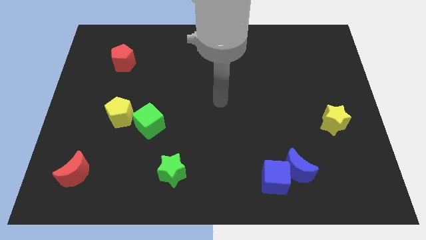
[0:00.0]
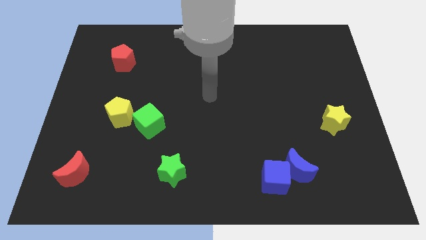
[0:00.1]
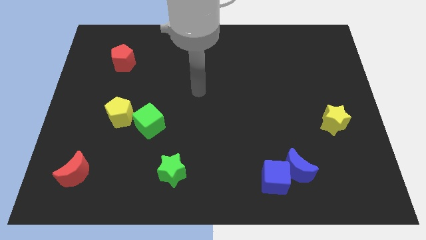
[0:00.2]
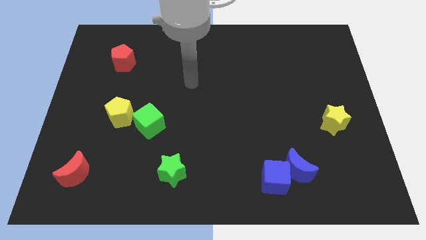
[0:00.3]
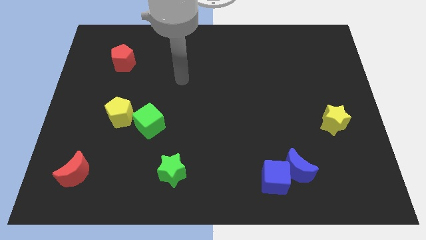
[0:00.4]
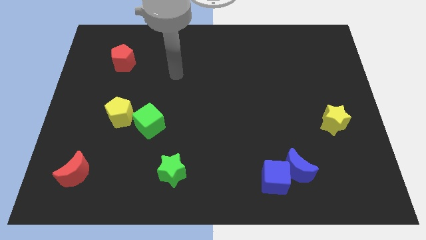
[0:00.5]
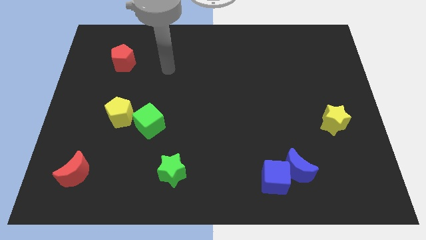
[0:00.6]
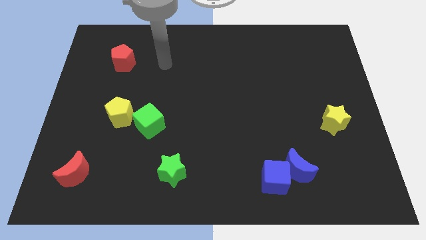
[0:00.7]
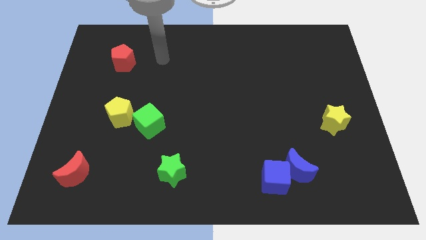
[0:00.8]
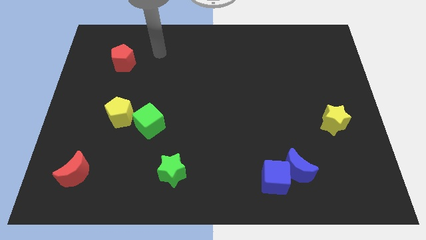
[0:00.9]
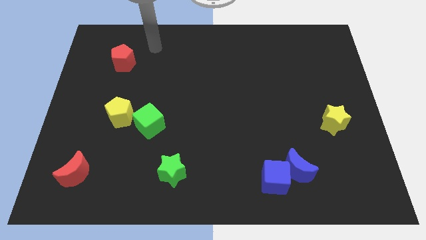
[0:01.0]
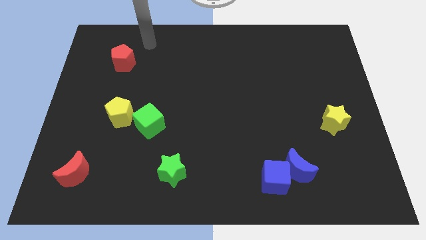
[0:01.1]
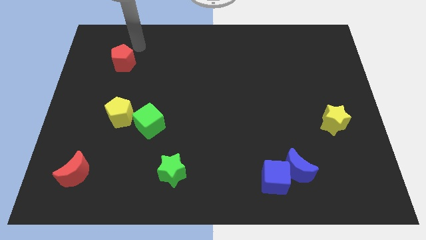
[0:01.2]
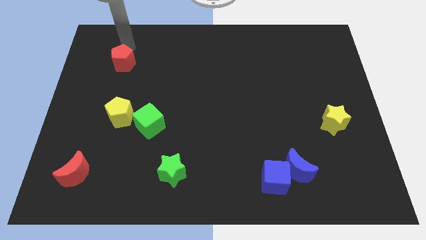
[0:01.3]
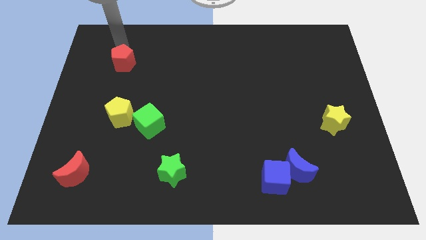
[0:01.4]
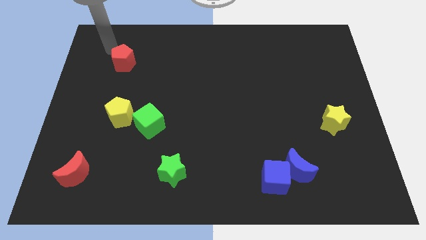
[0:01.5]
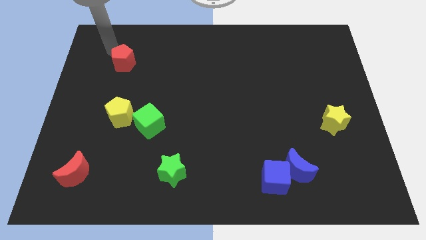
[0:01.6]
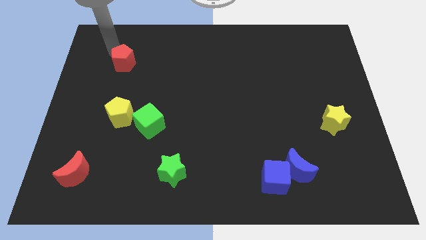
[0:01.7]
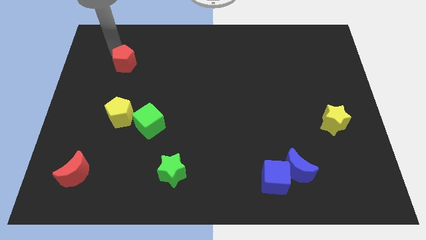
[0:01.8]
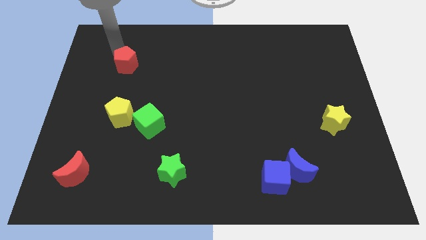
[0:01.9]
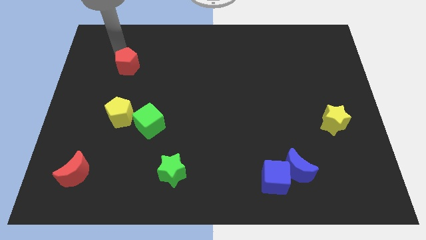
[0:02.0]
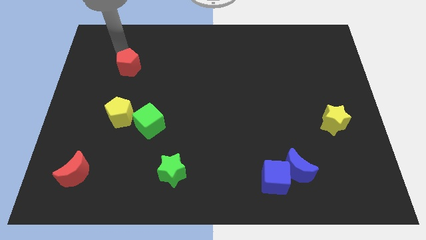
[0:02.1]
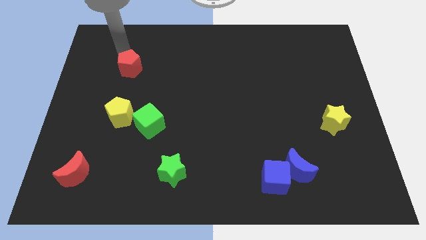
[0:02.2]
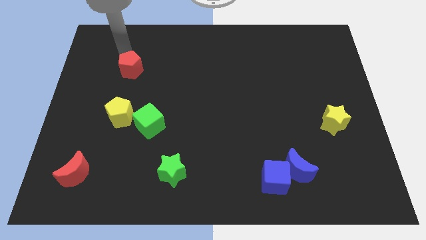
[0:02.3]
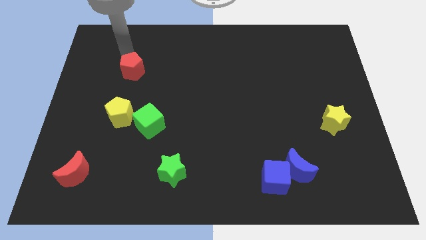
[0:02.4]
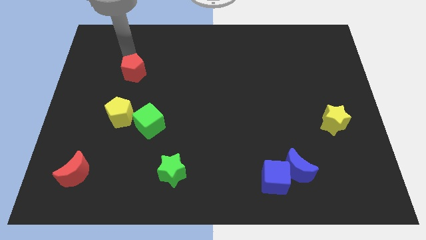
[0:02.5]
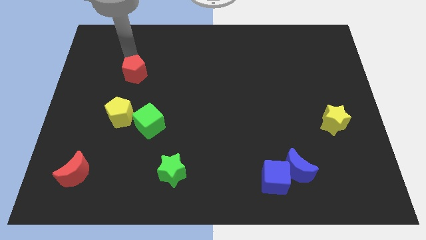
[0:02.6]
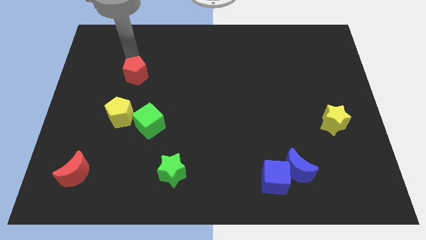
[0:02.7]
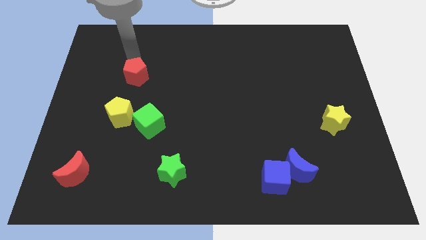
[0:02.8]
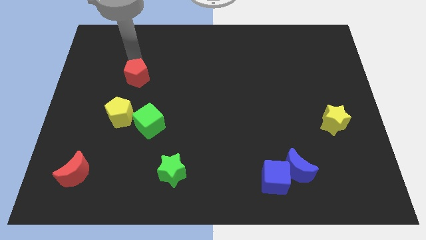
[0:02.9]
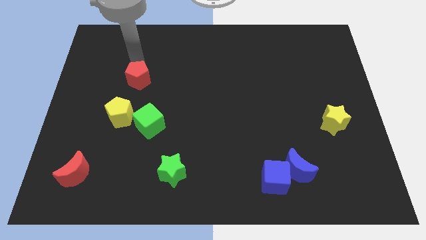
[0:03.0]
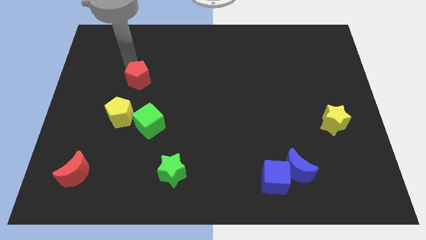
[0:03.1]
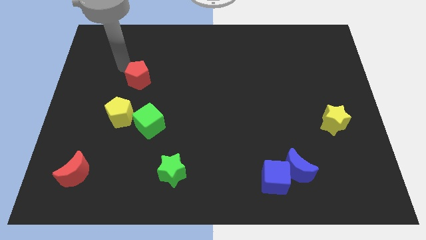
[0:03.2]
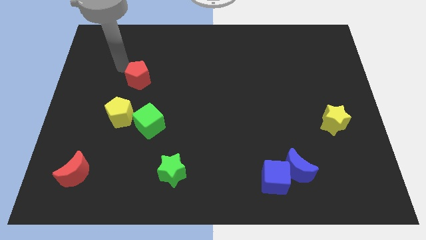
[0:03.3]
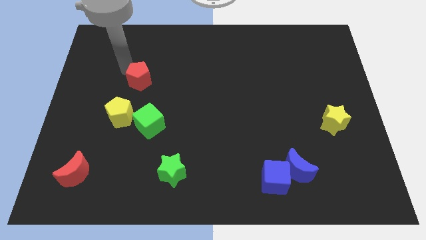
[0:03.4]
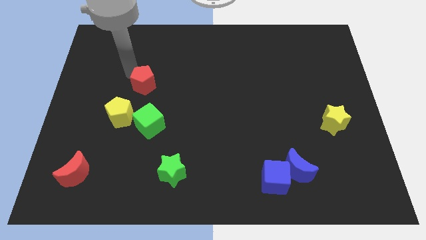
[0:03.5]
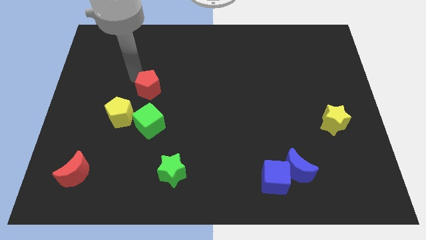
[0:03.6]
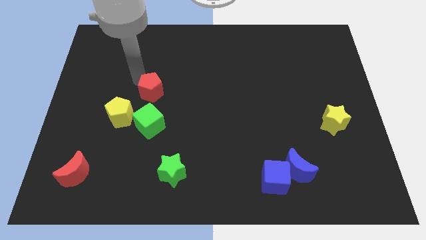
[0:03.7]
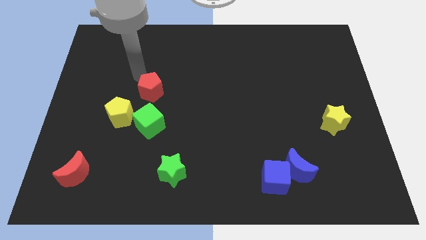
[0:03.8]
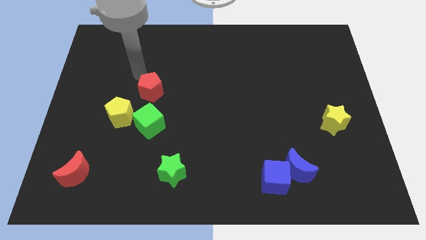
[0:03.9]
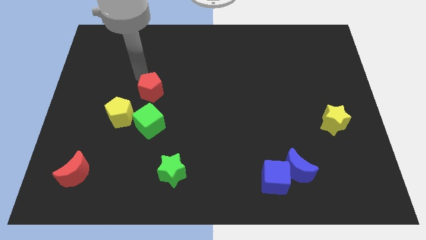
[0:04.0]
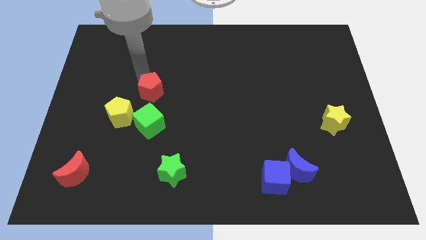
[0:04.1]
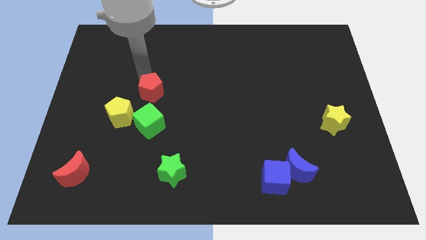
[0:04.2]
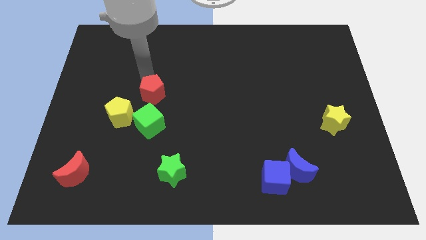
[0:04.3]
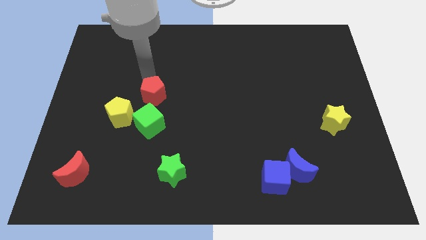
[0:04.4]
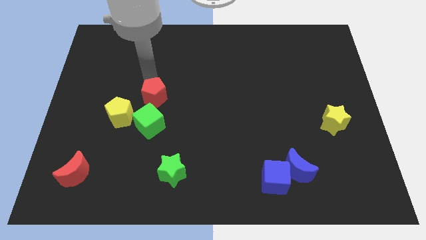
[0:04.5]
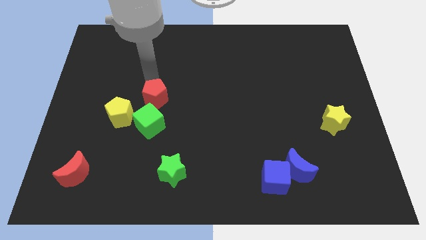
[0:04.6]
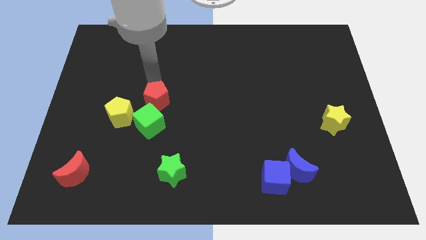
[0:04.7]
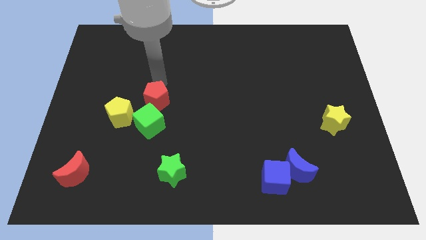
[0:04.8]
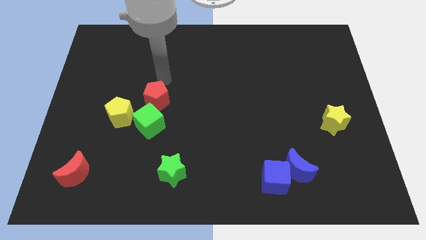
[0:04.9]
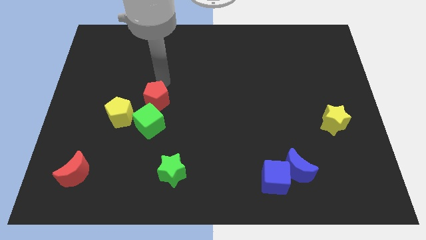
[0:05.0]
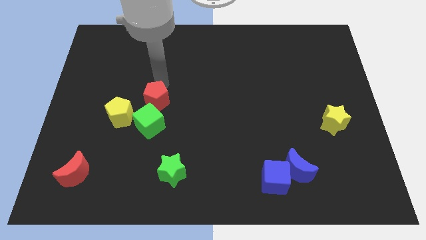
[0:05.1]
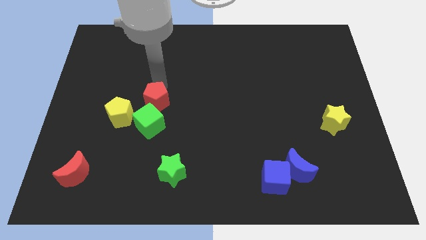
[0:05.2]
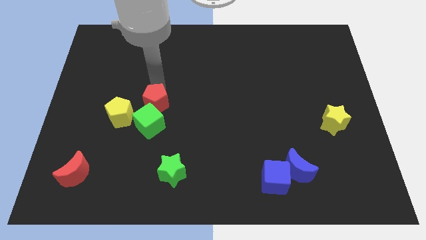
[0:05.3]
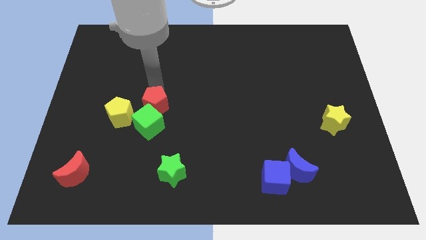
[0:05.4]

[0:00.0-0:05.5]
push the red pentagon towards the green cube

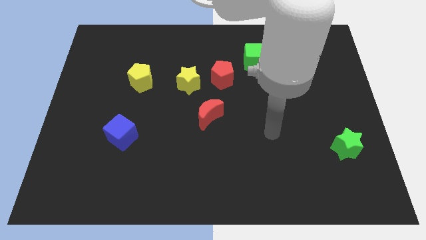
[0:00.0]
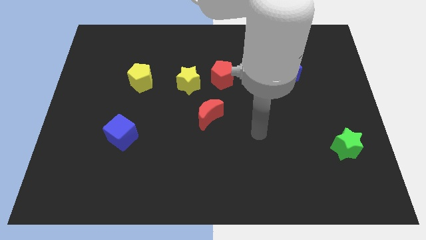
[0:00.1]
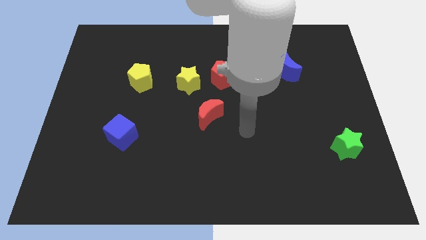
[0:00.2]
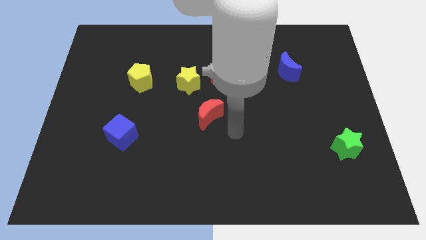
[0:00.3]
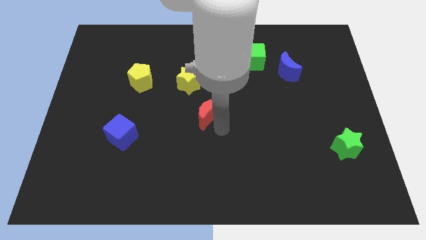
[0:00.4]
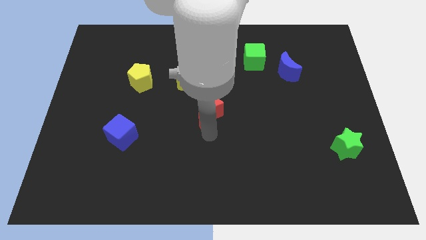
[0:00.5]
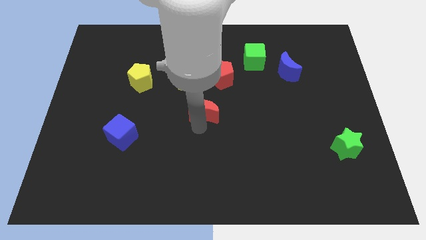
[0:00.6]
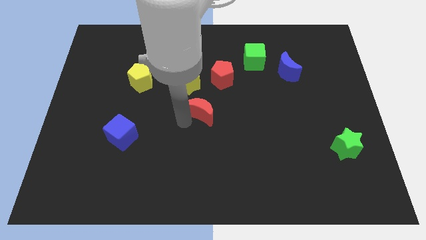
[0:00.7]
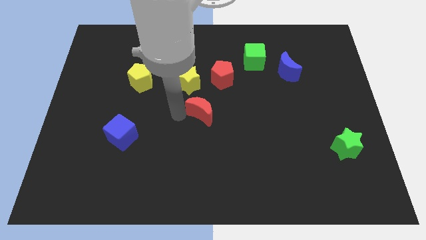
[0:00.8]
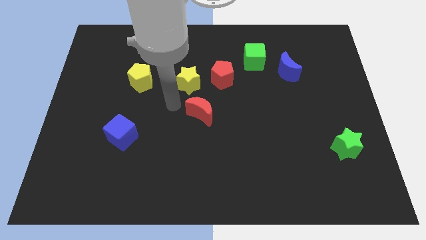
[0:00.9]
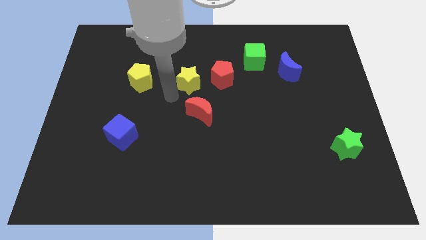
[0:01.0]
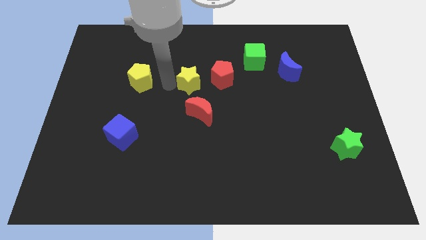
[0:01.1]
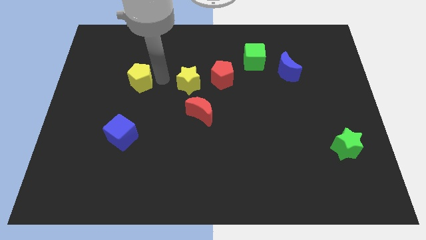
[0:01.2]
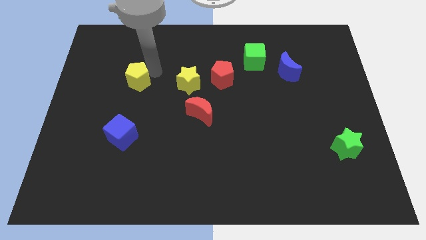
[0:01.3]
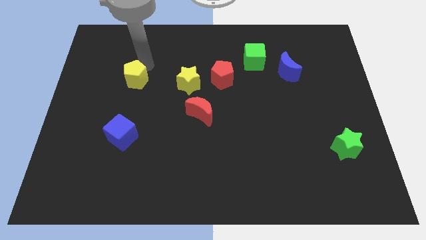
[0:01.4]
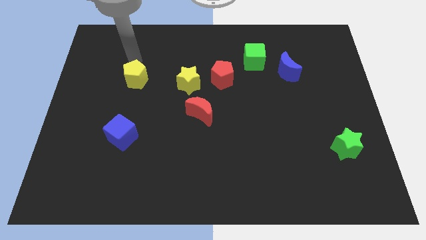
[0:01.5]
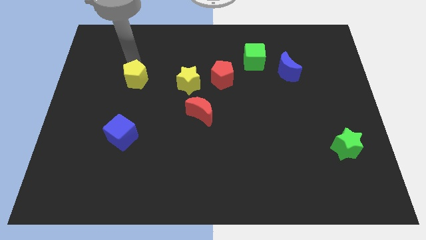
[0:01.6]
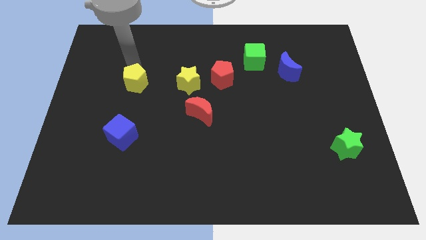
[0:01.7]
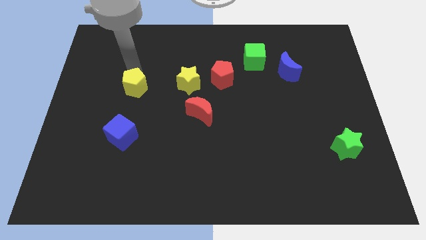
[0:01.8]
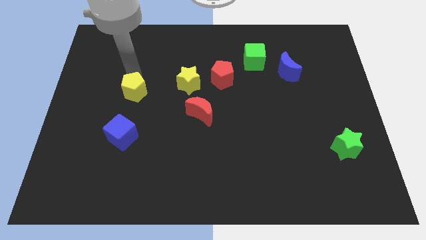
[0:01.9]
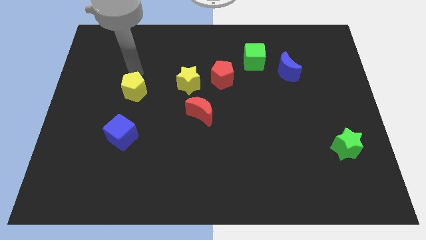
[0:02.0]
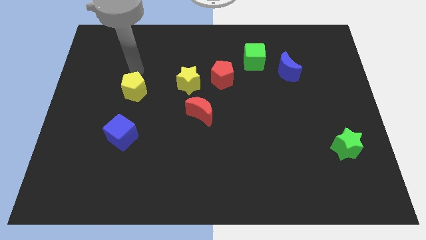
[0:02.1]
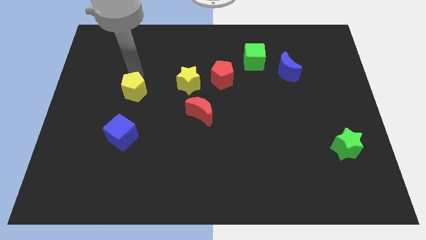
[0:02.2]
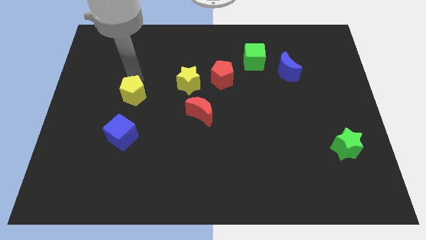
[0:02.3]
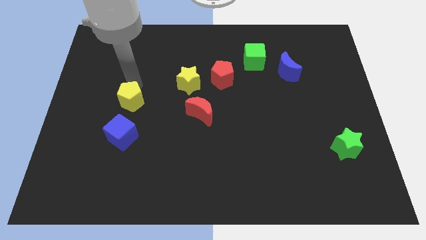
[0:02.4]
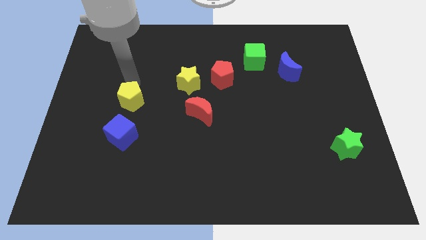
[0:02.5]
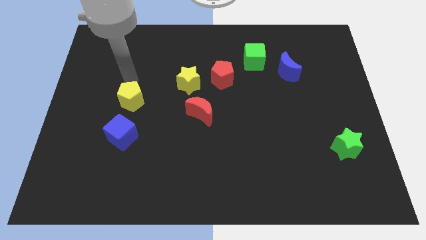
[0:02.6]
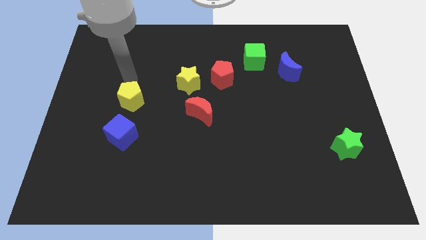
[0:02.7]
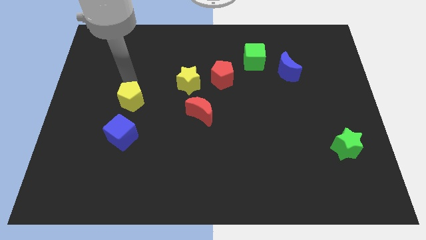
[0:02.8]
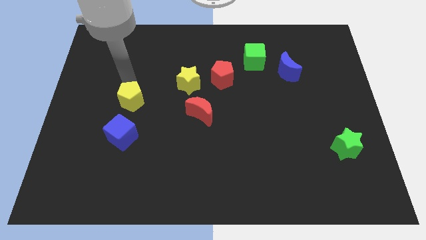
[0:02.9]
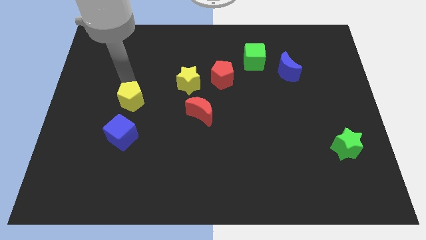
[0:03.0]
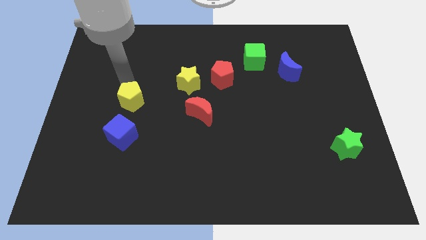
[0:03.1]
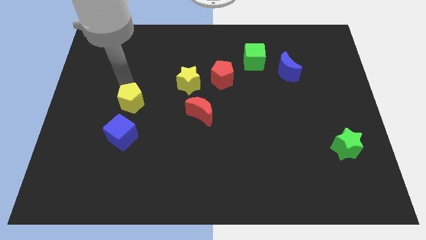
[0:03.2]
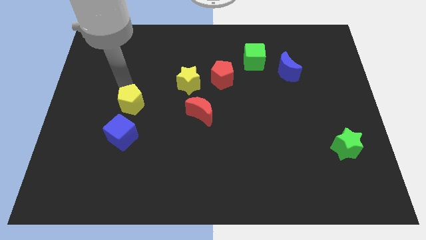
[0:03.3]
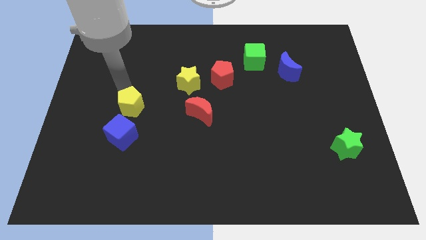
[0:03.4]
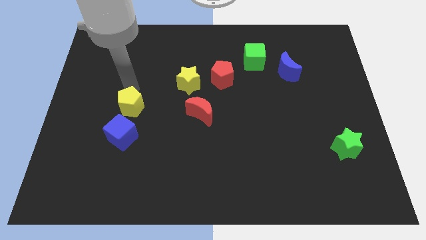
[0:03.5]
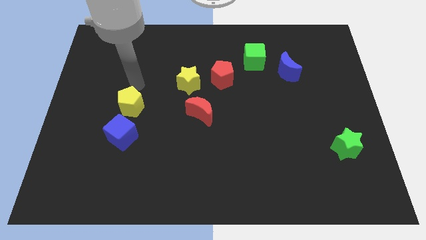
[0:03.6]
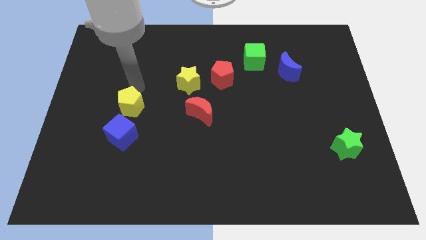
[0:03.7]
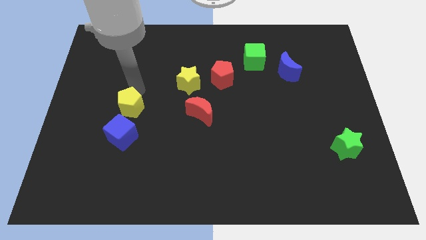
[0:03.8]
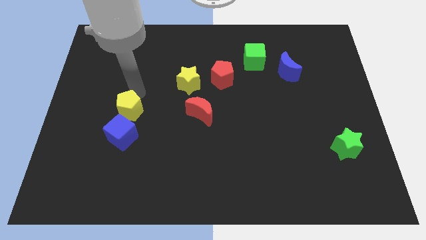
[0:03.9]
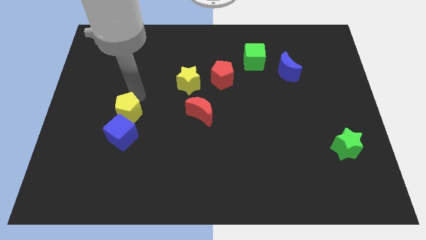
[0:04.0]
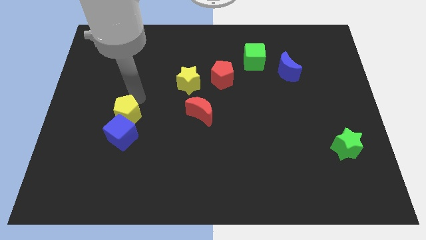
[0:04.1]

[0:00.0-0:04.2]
push the yellow pentagon to the blue cube
